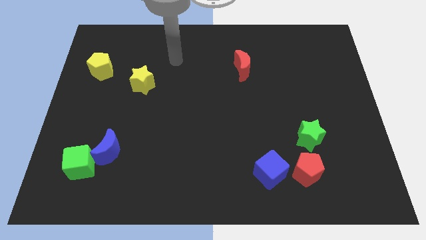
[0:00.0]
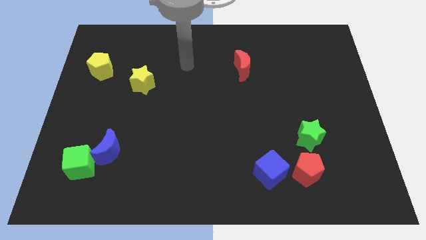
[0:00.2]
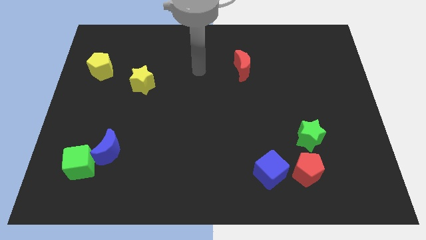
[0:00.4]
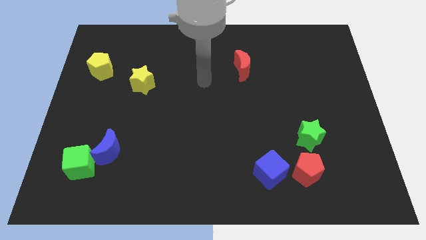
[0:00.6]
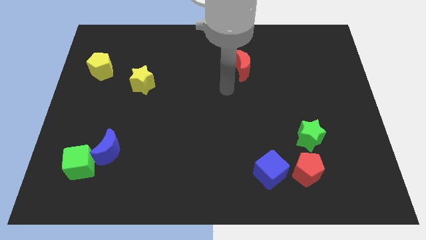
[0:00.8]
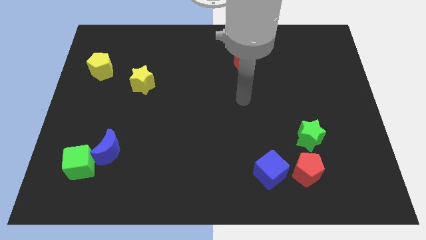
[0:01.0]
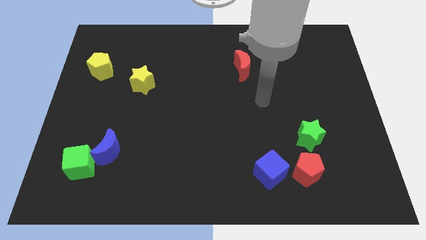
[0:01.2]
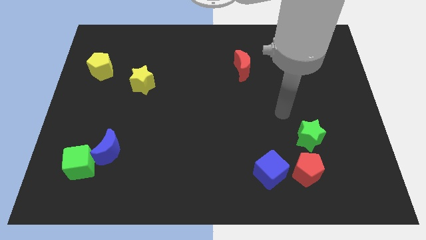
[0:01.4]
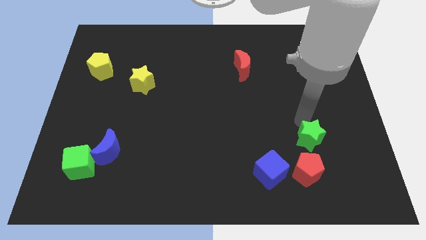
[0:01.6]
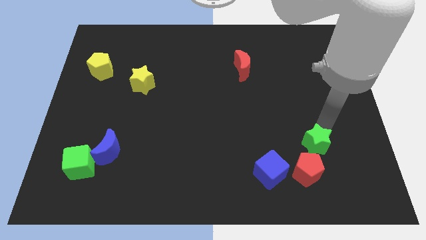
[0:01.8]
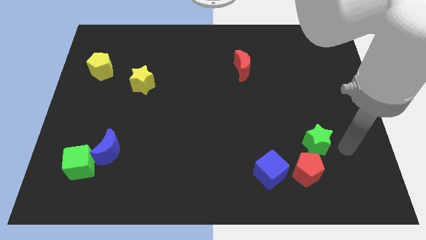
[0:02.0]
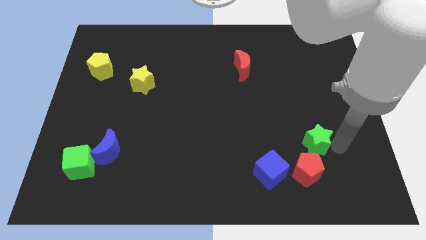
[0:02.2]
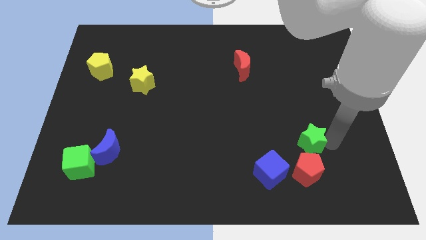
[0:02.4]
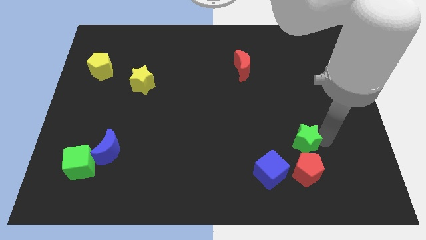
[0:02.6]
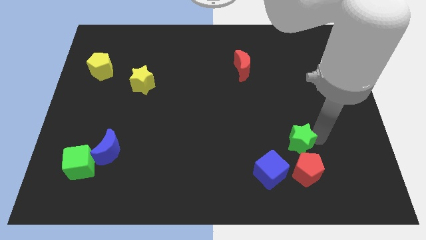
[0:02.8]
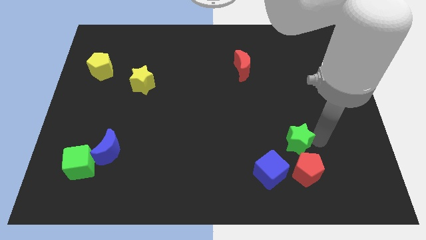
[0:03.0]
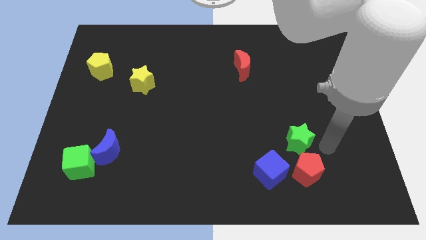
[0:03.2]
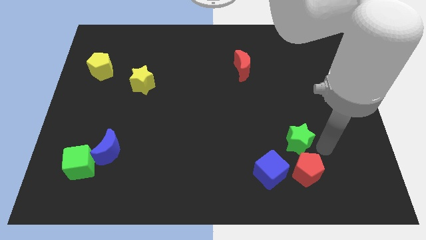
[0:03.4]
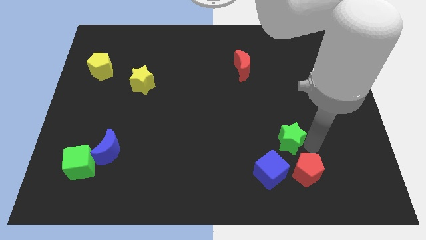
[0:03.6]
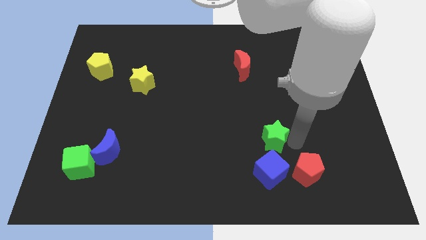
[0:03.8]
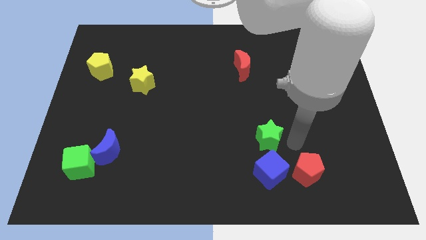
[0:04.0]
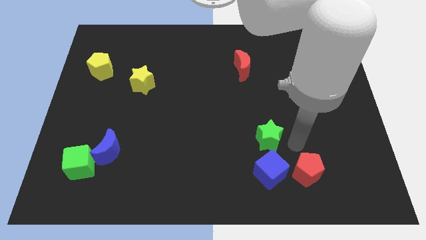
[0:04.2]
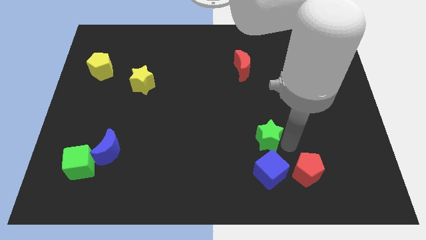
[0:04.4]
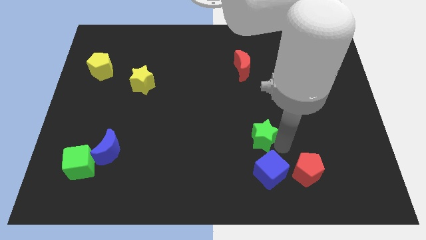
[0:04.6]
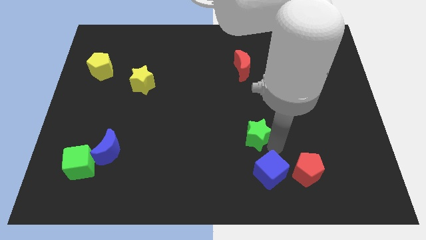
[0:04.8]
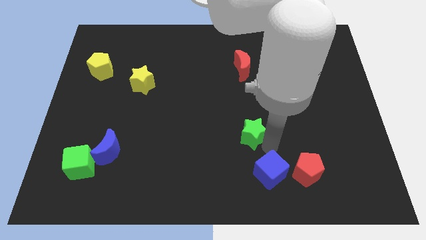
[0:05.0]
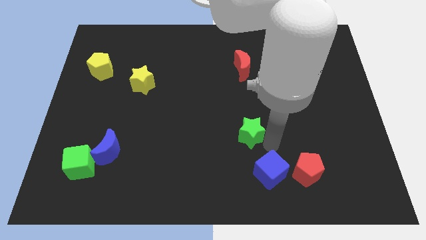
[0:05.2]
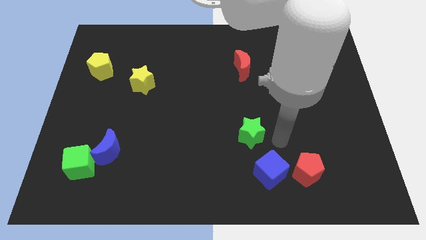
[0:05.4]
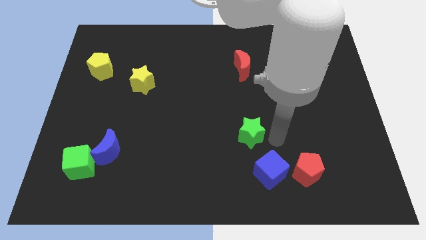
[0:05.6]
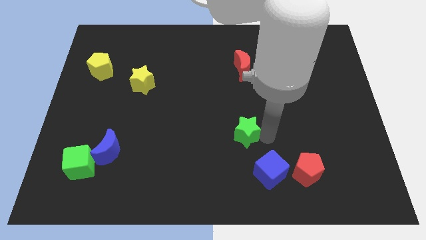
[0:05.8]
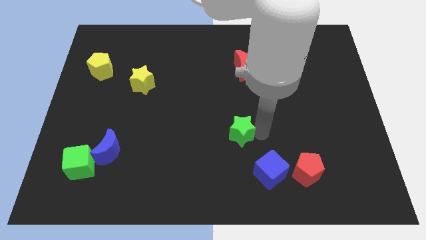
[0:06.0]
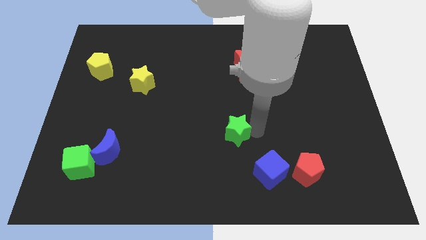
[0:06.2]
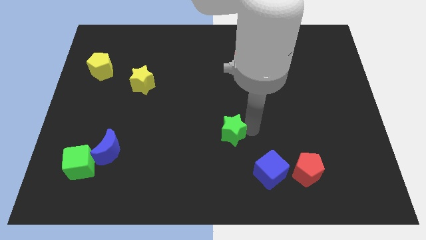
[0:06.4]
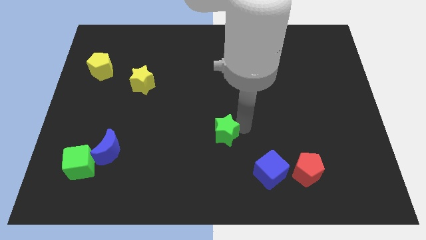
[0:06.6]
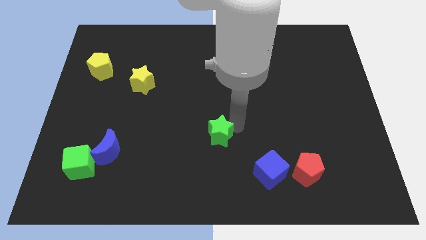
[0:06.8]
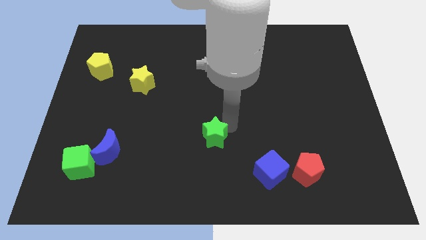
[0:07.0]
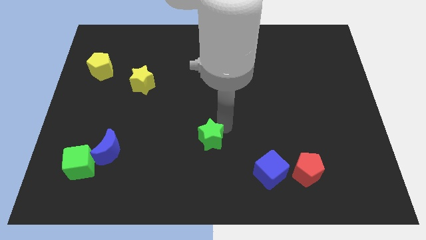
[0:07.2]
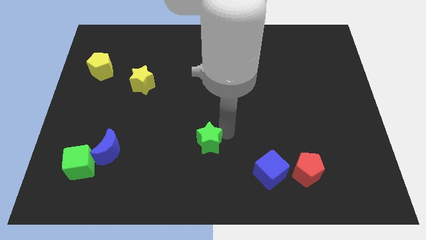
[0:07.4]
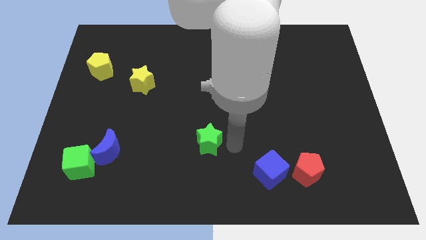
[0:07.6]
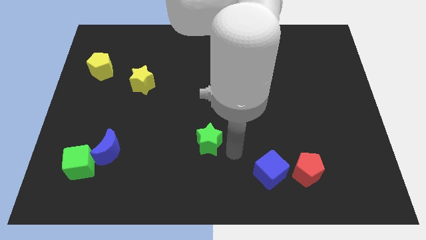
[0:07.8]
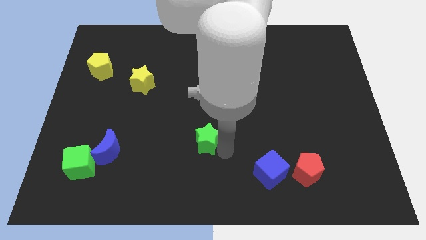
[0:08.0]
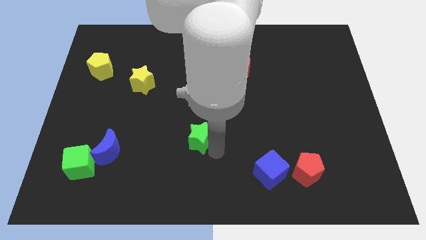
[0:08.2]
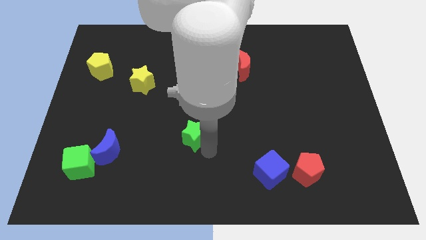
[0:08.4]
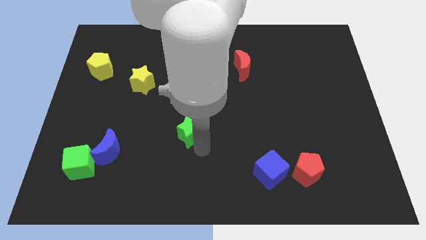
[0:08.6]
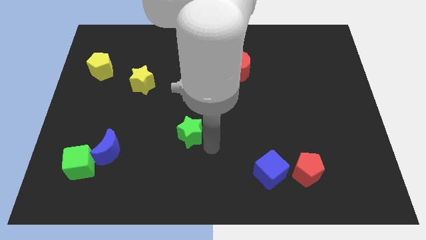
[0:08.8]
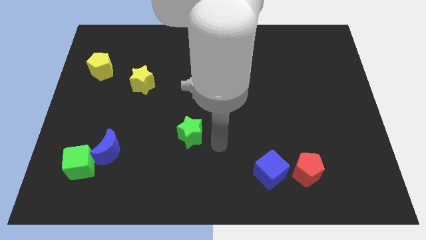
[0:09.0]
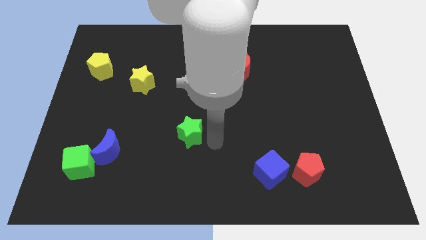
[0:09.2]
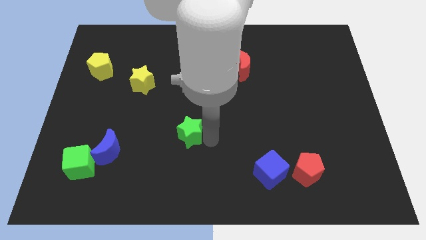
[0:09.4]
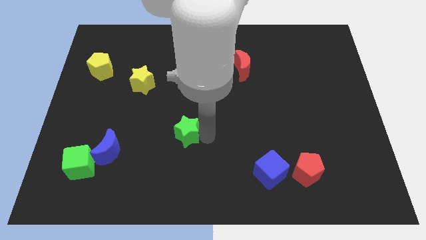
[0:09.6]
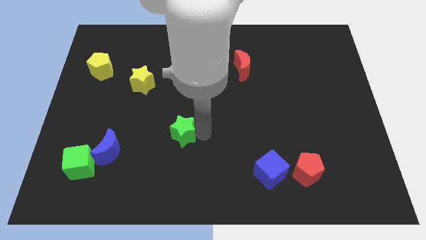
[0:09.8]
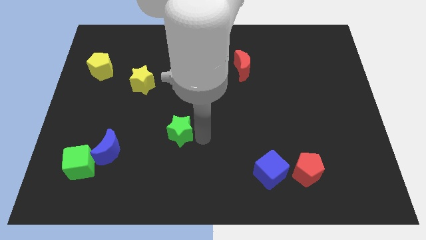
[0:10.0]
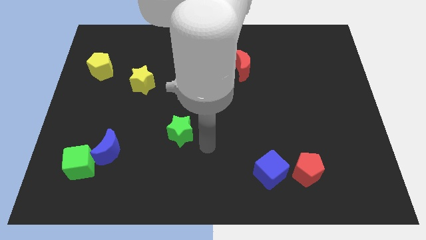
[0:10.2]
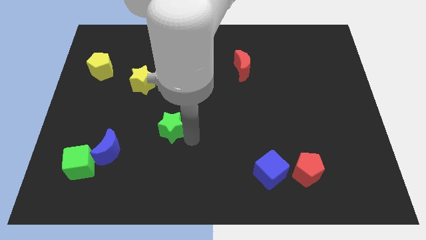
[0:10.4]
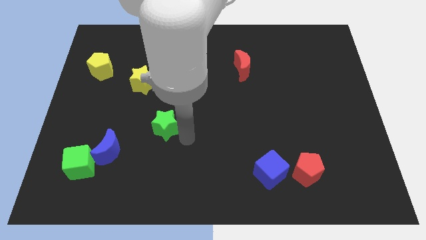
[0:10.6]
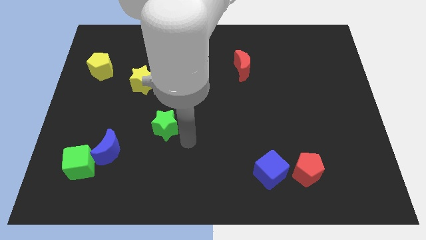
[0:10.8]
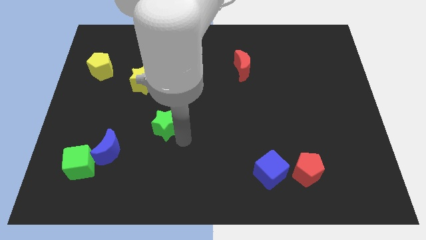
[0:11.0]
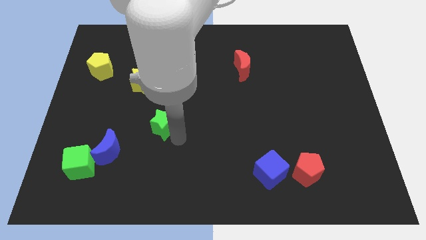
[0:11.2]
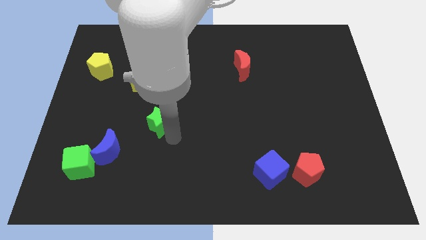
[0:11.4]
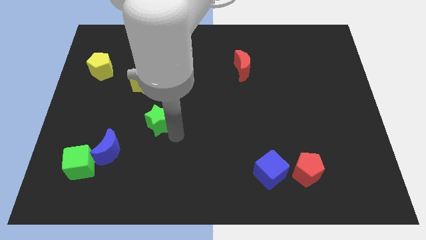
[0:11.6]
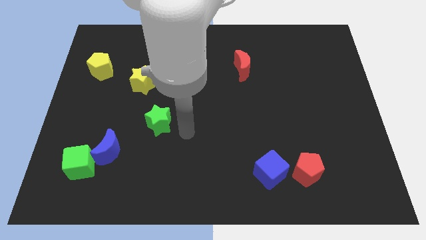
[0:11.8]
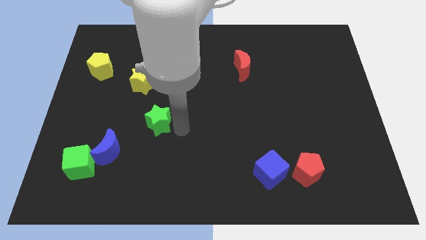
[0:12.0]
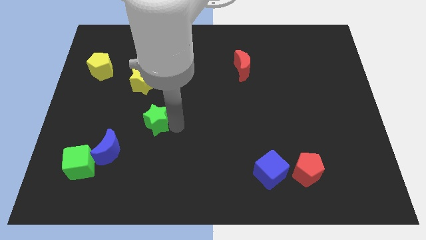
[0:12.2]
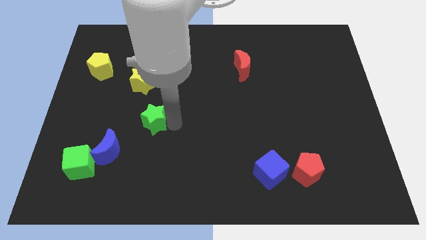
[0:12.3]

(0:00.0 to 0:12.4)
push the green star to the bottom of the yellow star

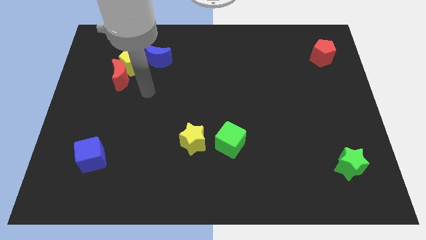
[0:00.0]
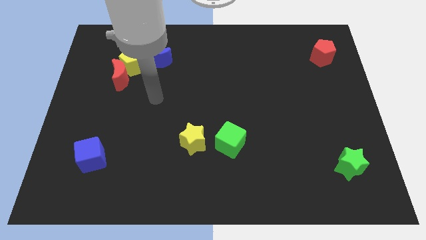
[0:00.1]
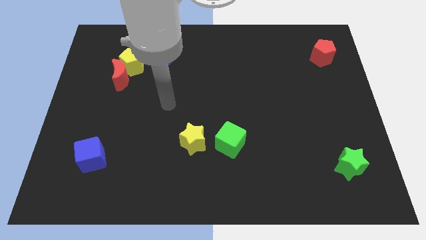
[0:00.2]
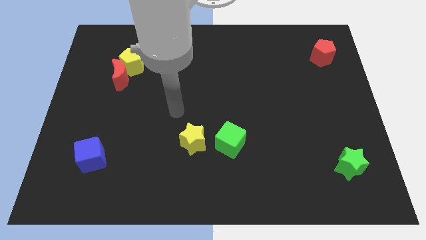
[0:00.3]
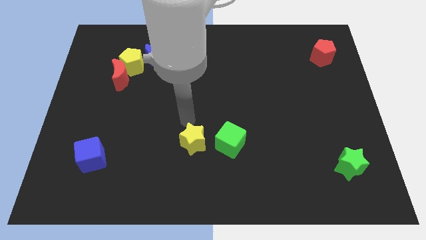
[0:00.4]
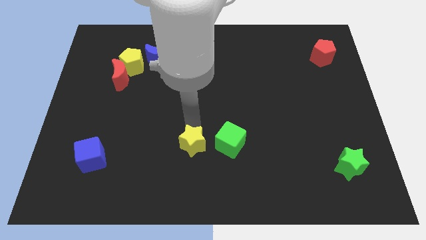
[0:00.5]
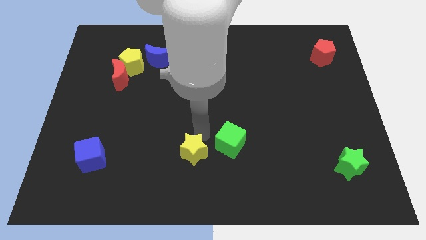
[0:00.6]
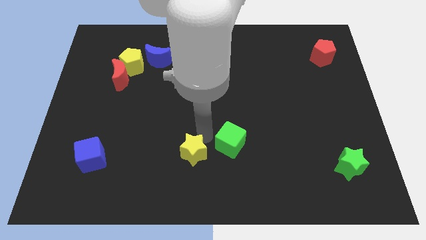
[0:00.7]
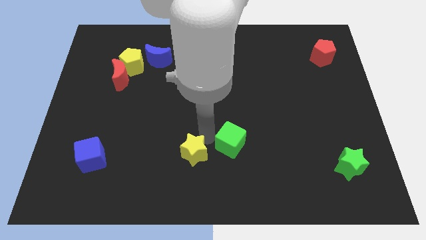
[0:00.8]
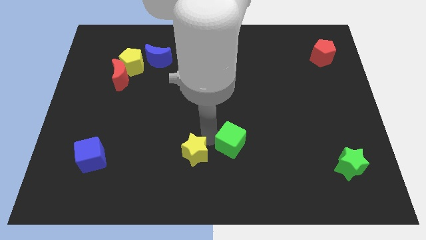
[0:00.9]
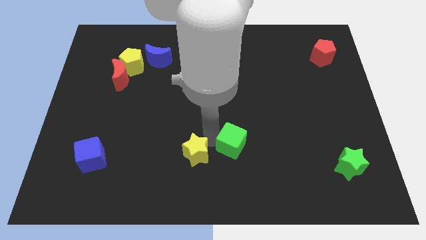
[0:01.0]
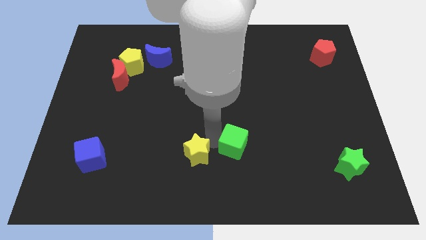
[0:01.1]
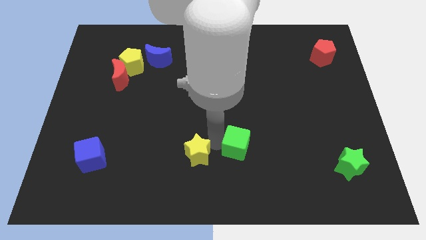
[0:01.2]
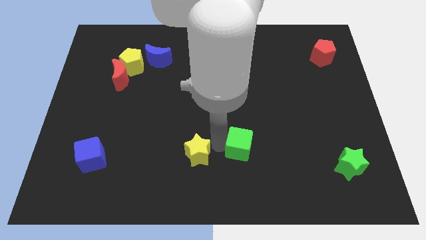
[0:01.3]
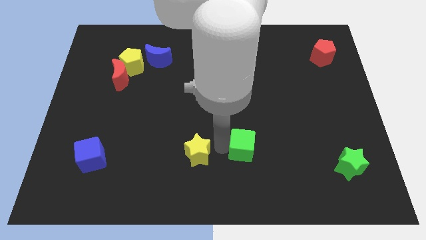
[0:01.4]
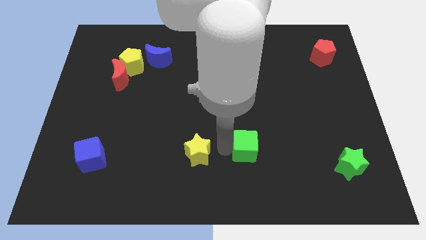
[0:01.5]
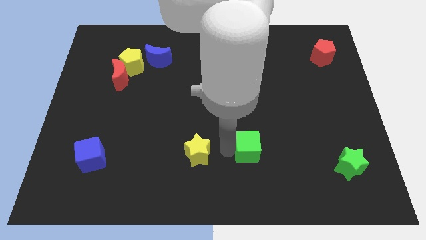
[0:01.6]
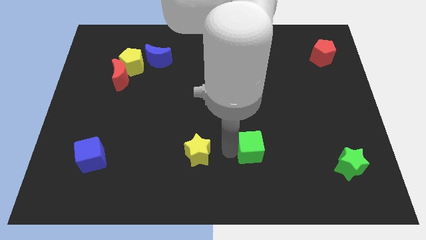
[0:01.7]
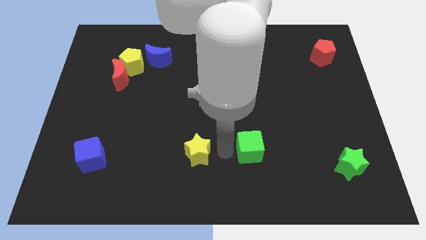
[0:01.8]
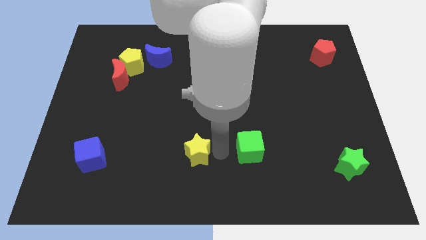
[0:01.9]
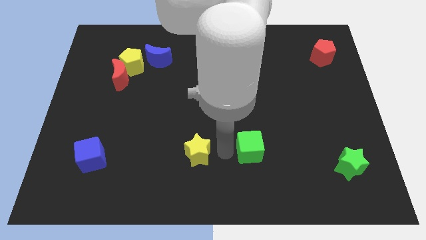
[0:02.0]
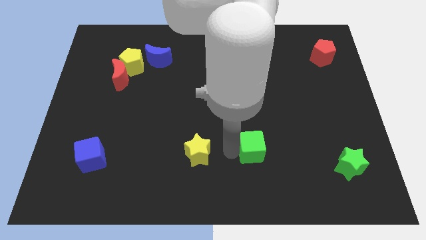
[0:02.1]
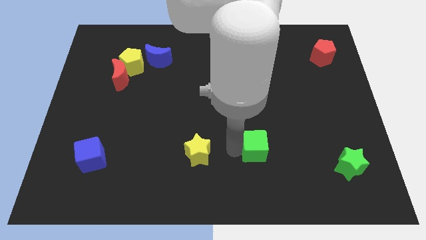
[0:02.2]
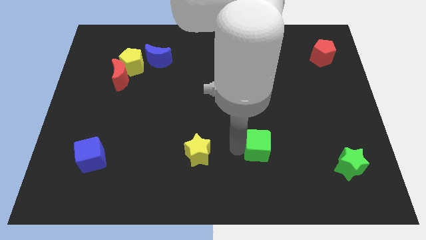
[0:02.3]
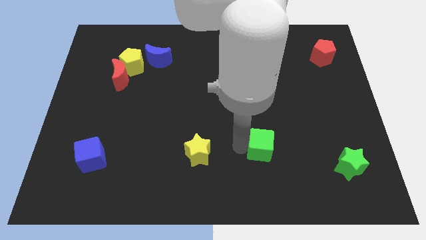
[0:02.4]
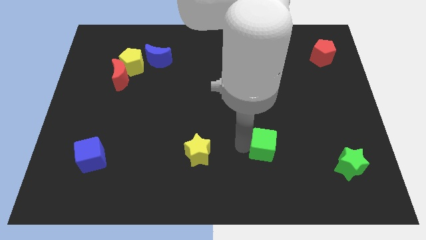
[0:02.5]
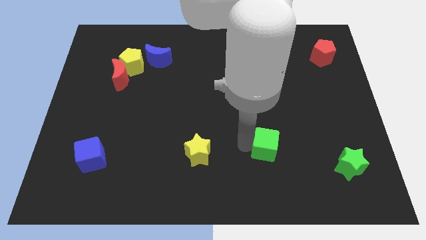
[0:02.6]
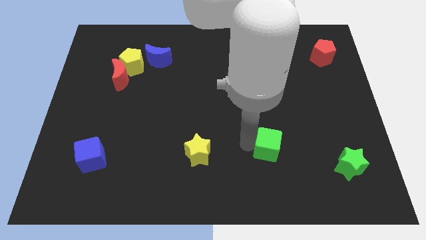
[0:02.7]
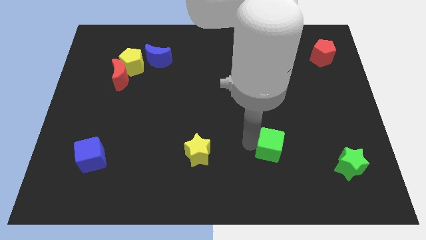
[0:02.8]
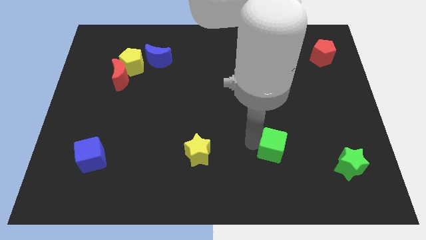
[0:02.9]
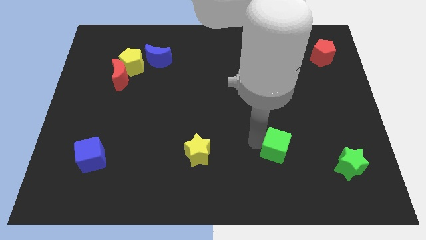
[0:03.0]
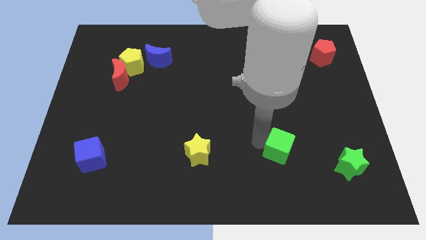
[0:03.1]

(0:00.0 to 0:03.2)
move the green cube left of the green star
